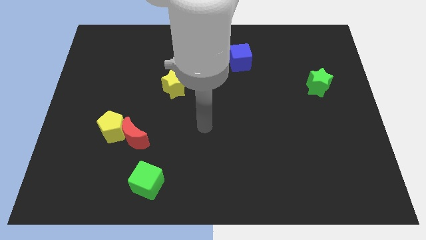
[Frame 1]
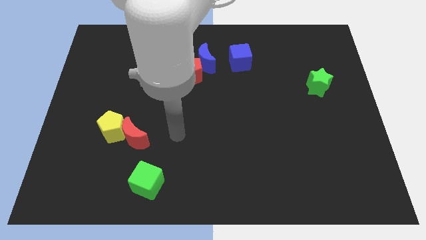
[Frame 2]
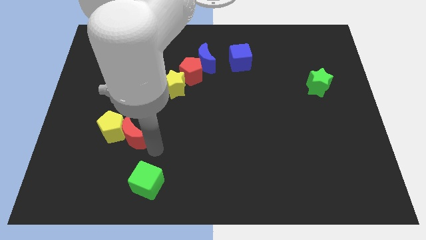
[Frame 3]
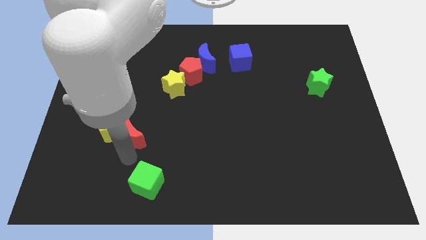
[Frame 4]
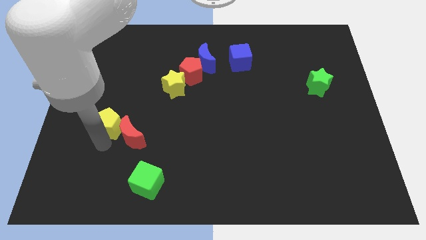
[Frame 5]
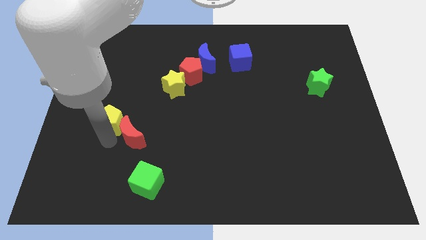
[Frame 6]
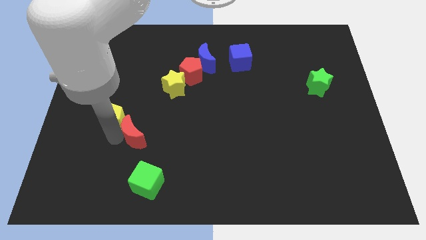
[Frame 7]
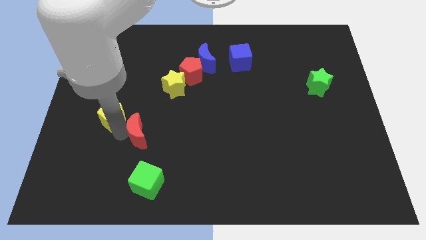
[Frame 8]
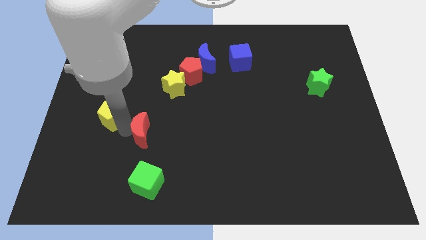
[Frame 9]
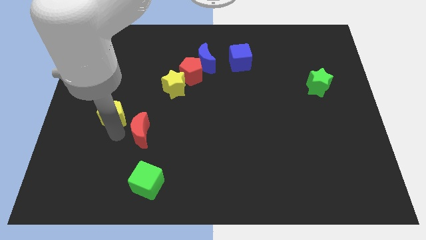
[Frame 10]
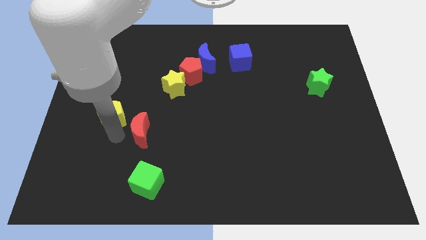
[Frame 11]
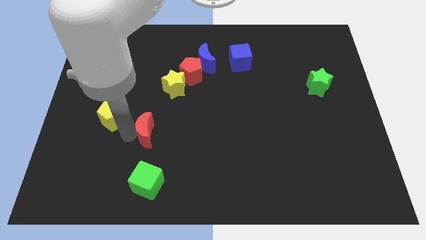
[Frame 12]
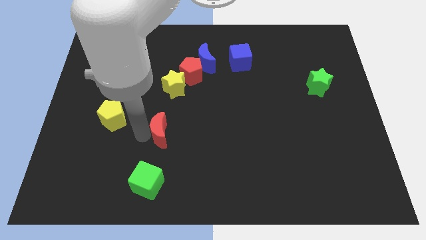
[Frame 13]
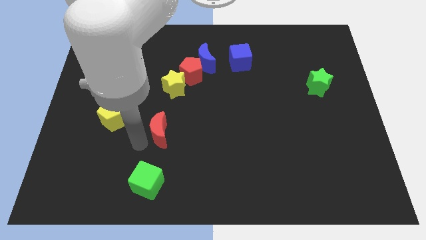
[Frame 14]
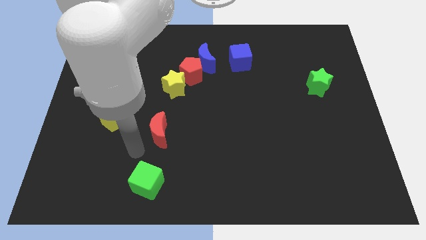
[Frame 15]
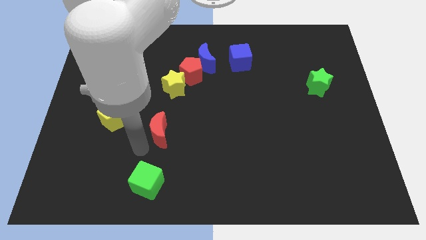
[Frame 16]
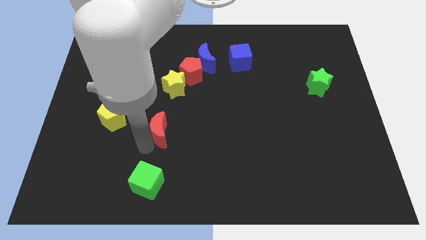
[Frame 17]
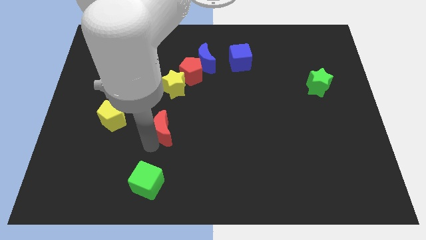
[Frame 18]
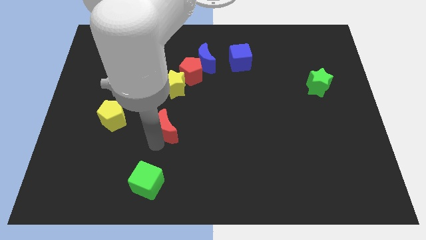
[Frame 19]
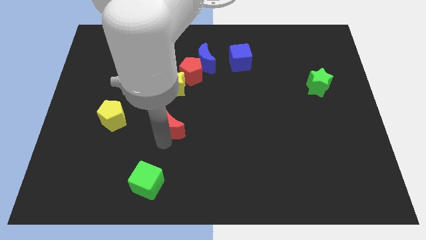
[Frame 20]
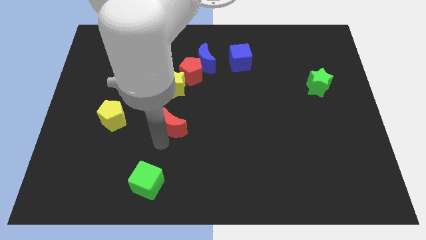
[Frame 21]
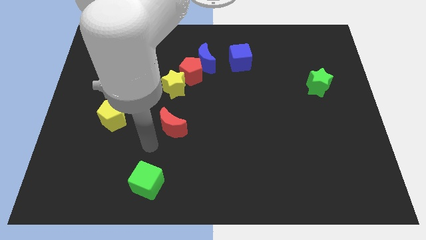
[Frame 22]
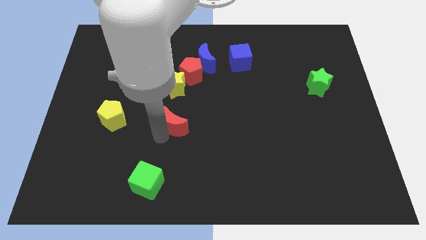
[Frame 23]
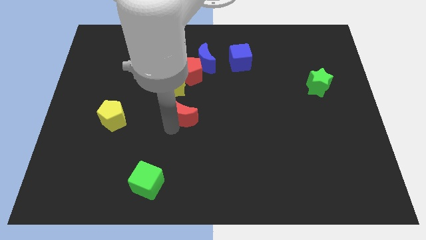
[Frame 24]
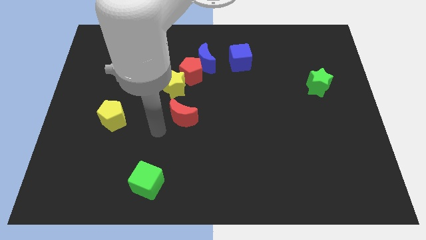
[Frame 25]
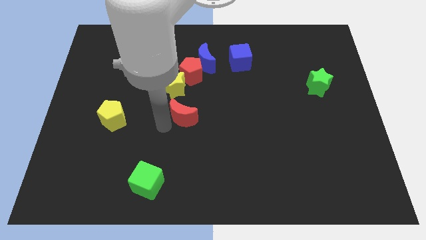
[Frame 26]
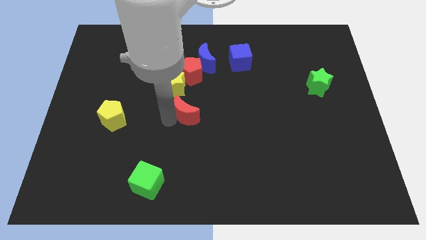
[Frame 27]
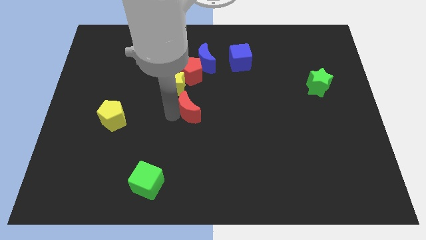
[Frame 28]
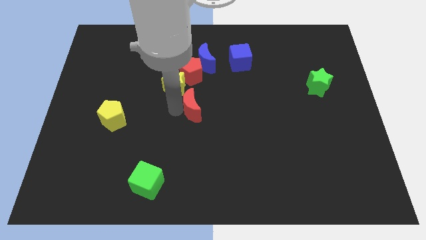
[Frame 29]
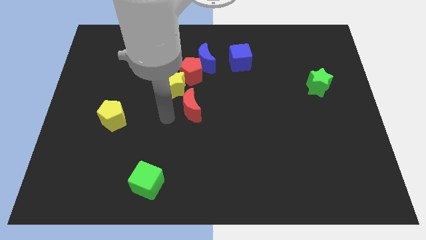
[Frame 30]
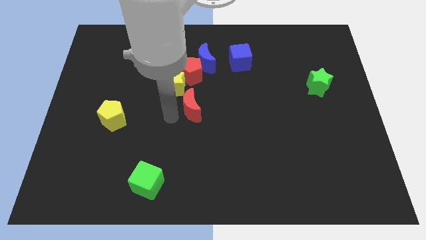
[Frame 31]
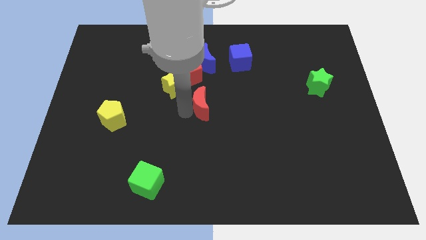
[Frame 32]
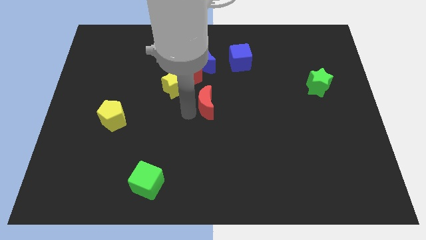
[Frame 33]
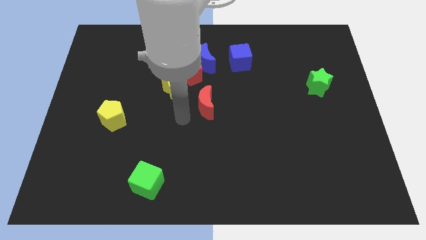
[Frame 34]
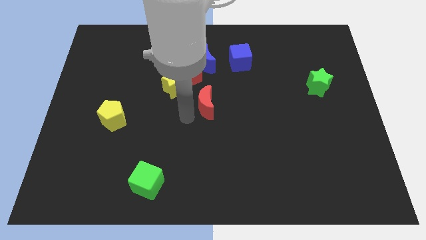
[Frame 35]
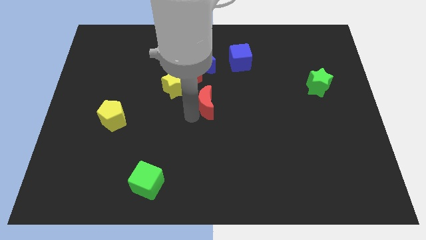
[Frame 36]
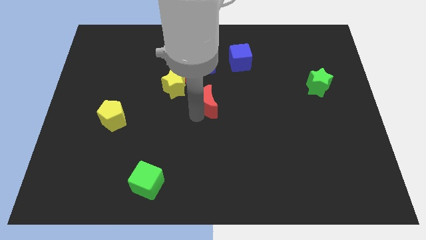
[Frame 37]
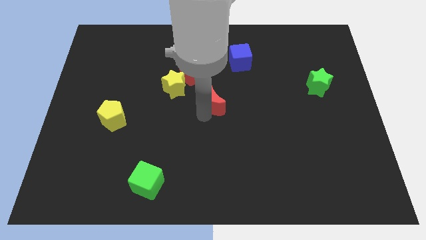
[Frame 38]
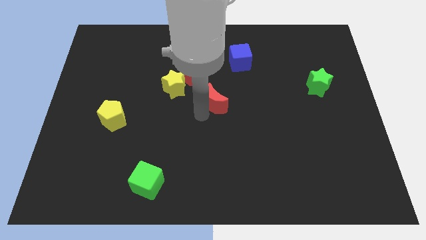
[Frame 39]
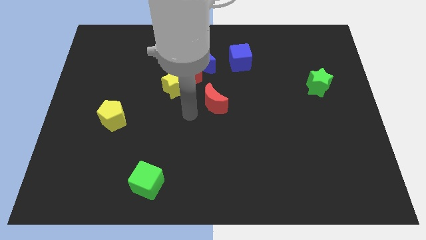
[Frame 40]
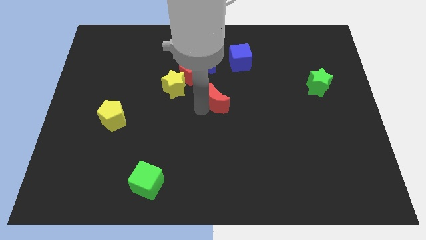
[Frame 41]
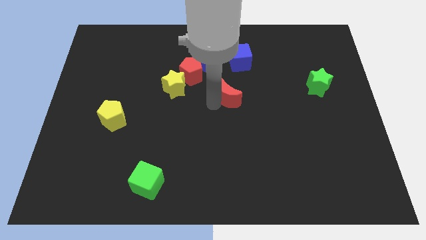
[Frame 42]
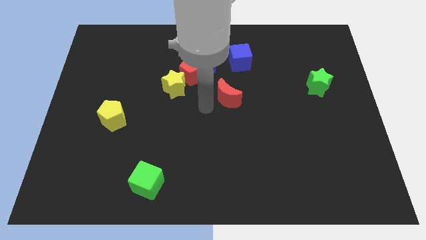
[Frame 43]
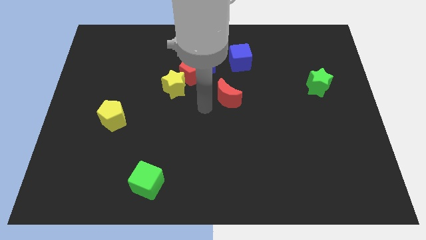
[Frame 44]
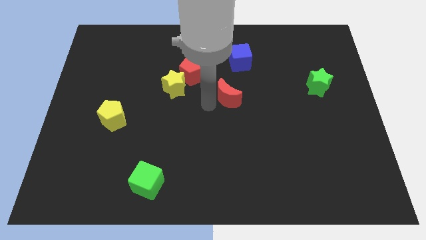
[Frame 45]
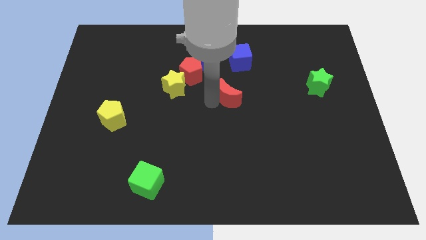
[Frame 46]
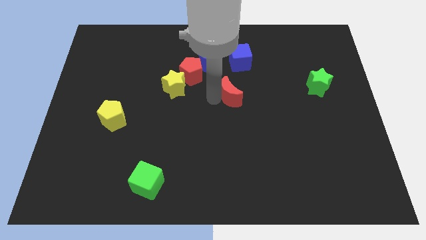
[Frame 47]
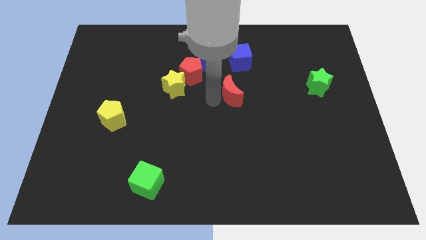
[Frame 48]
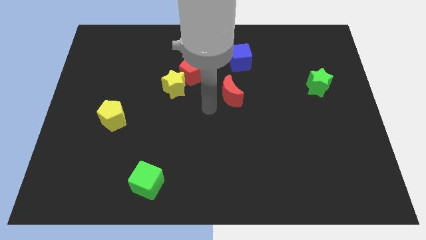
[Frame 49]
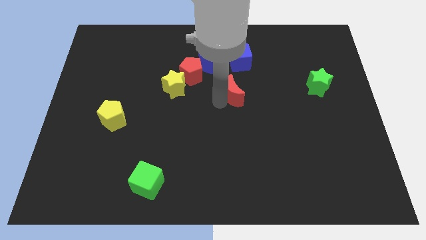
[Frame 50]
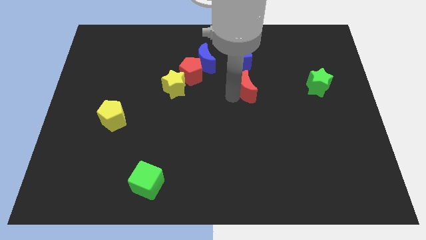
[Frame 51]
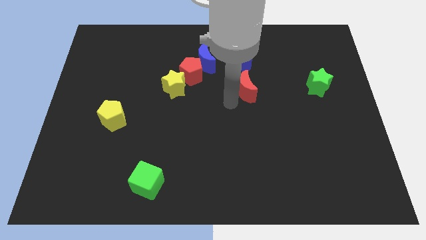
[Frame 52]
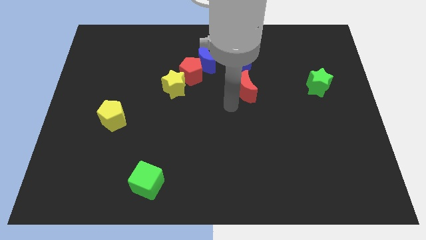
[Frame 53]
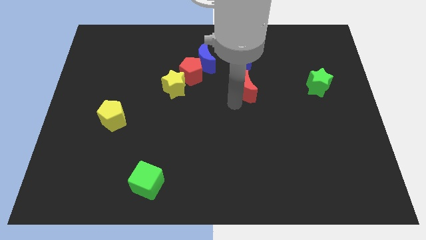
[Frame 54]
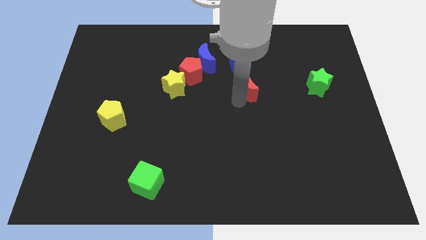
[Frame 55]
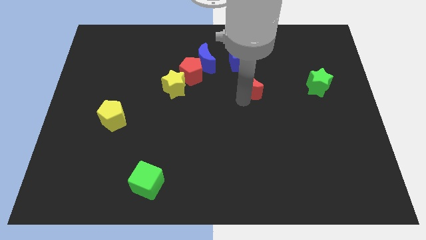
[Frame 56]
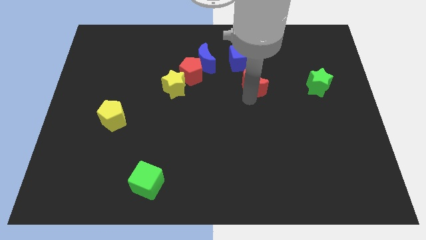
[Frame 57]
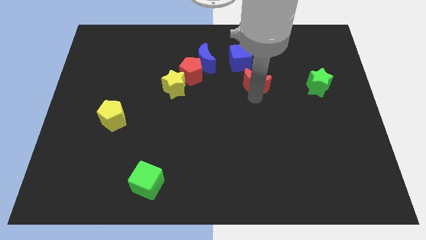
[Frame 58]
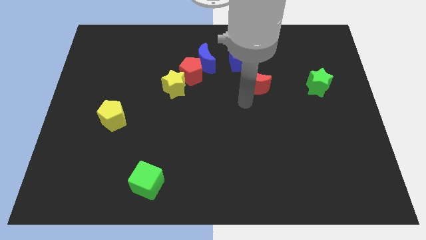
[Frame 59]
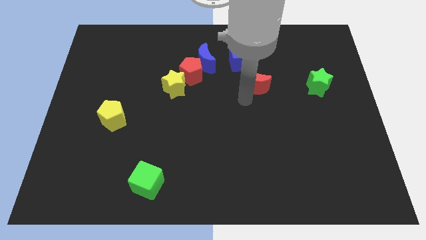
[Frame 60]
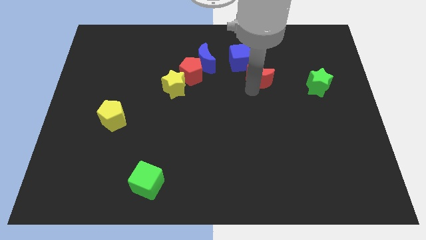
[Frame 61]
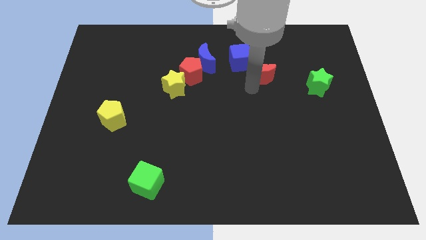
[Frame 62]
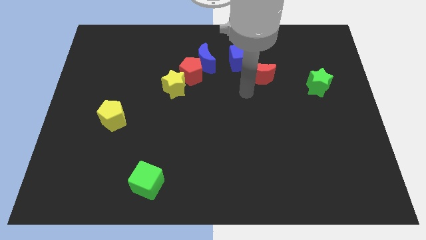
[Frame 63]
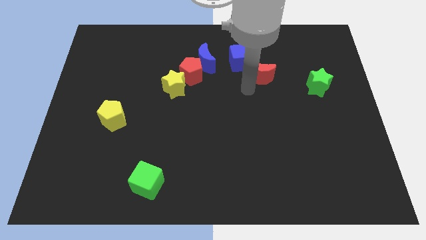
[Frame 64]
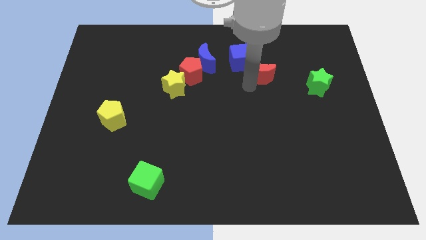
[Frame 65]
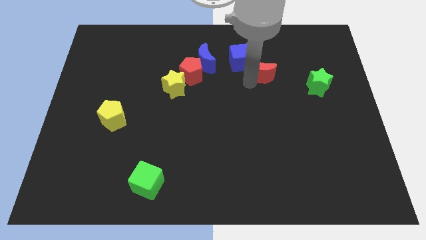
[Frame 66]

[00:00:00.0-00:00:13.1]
move the red moon right of the blue cube

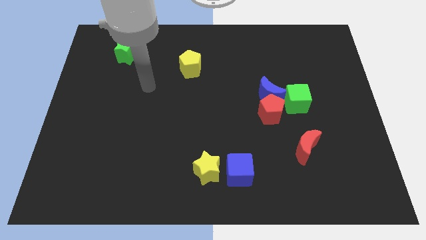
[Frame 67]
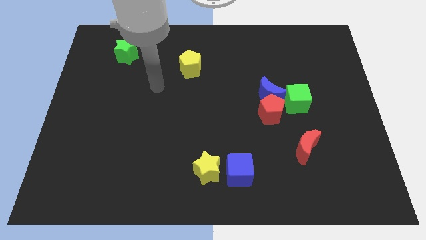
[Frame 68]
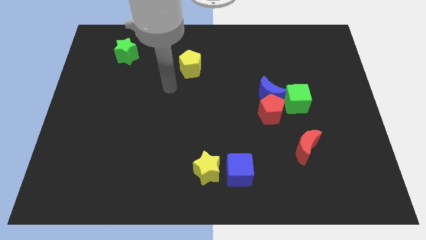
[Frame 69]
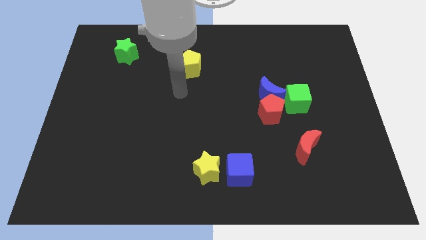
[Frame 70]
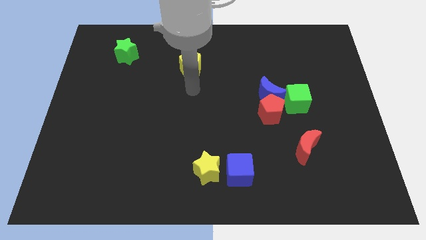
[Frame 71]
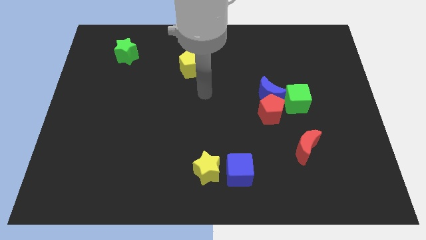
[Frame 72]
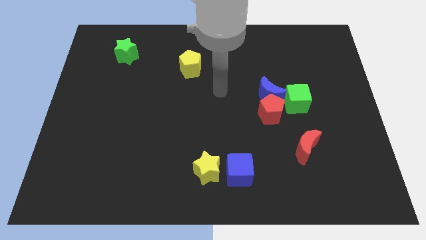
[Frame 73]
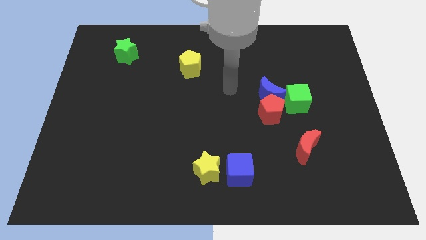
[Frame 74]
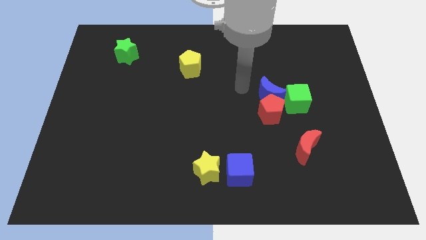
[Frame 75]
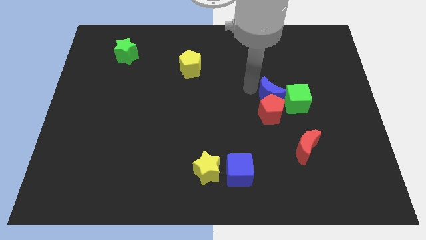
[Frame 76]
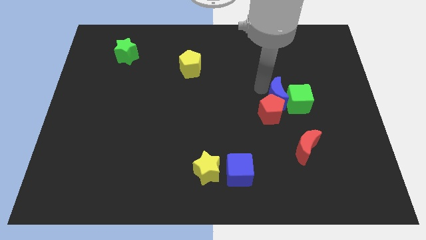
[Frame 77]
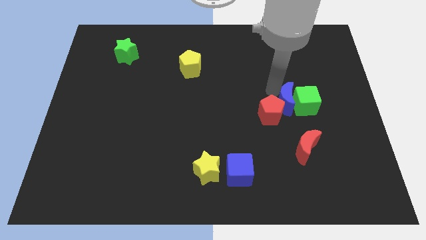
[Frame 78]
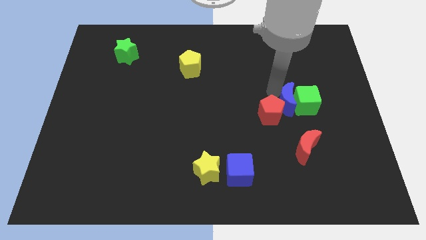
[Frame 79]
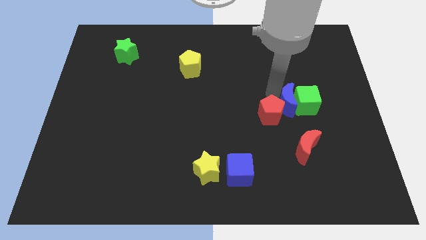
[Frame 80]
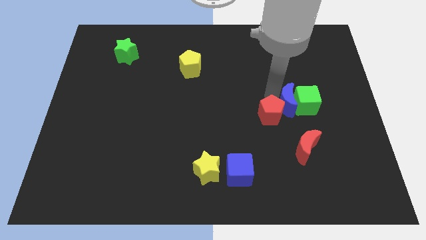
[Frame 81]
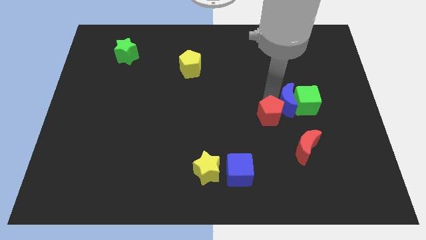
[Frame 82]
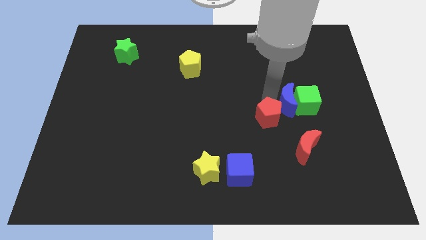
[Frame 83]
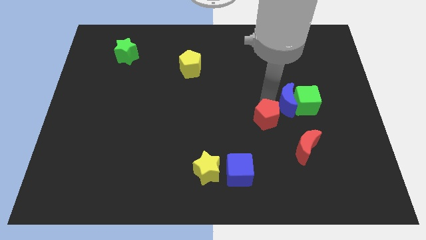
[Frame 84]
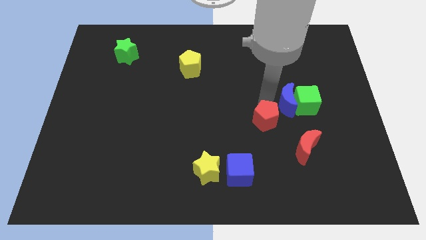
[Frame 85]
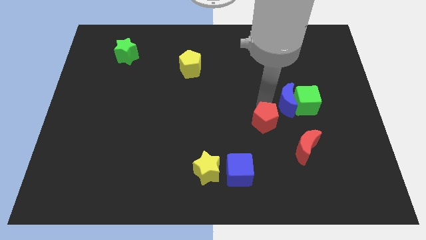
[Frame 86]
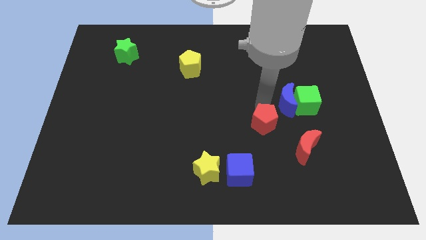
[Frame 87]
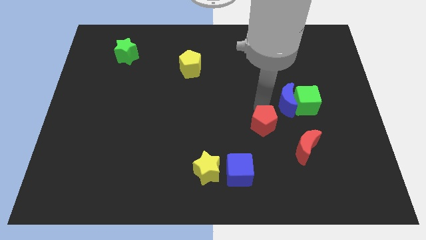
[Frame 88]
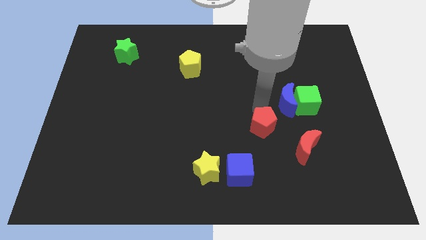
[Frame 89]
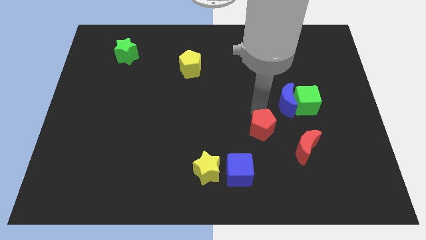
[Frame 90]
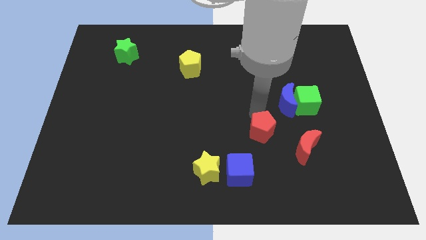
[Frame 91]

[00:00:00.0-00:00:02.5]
move the red pentagon to the top right side of the blue cube
